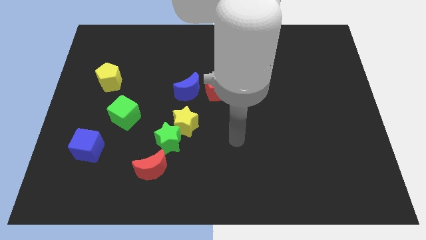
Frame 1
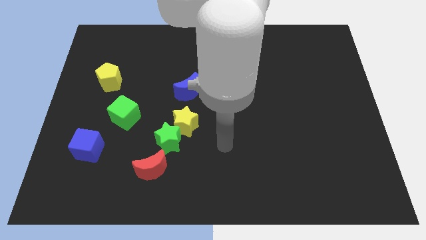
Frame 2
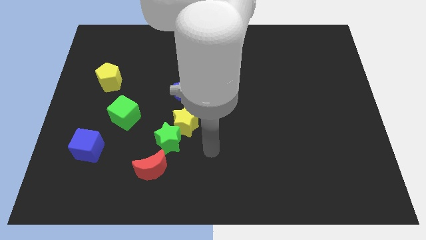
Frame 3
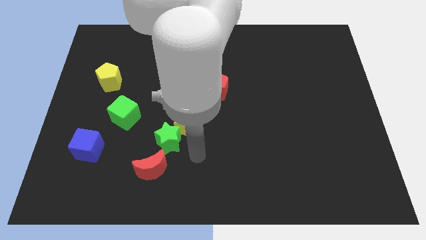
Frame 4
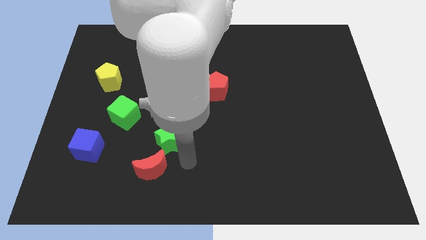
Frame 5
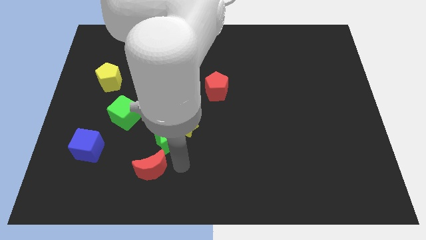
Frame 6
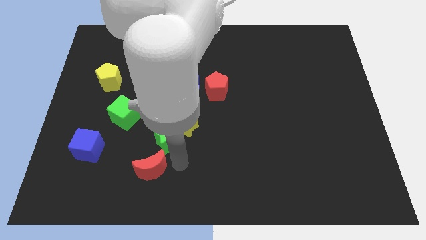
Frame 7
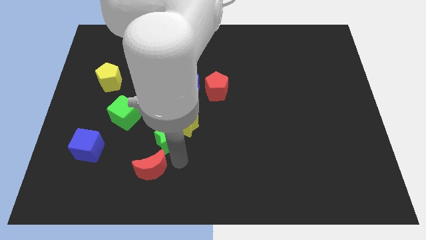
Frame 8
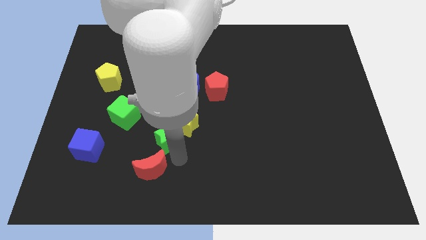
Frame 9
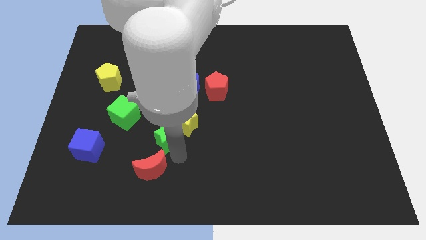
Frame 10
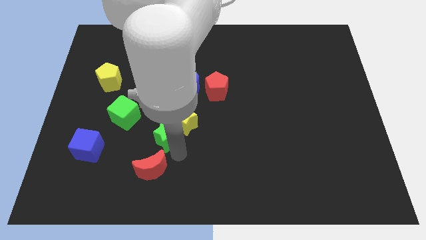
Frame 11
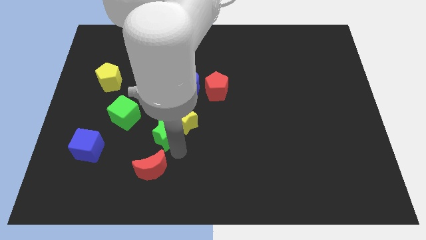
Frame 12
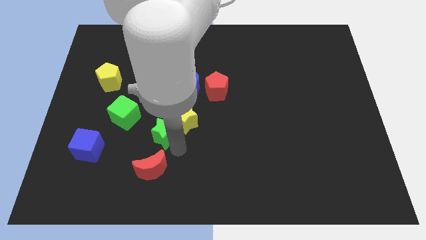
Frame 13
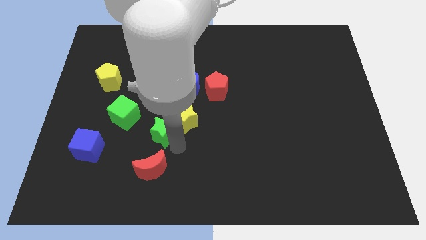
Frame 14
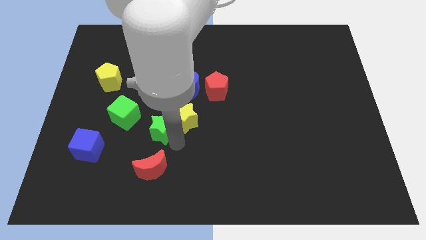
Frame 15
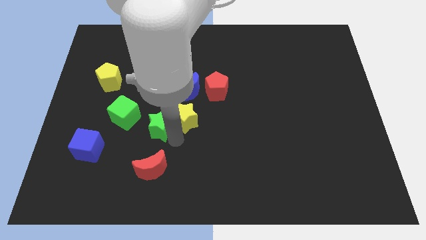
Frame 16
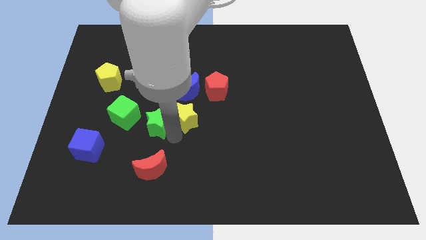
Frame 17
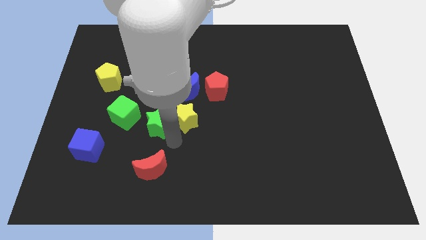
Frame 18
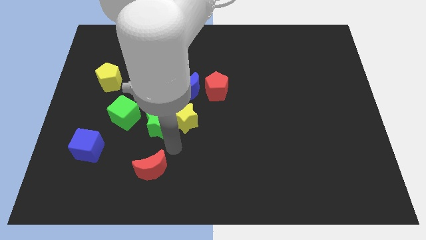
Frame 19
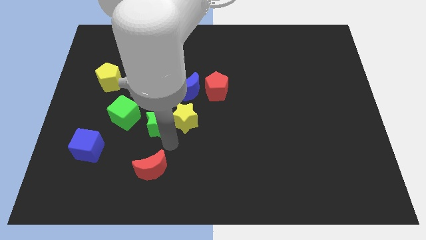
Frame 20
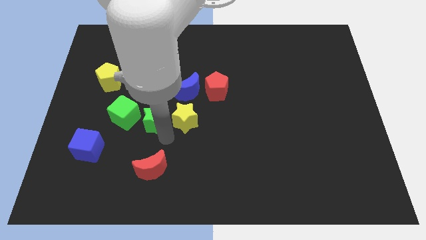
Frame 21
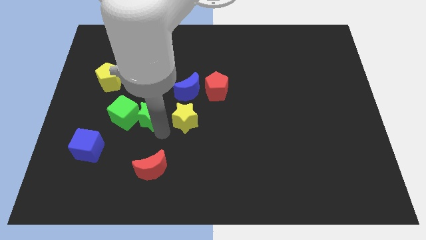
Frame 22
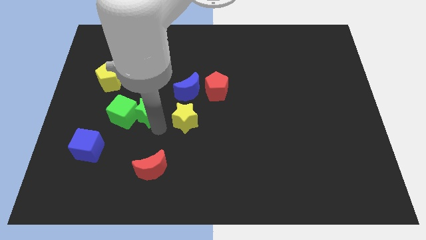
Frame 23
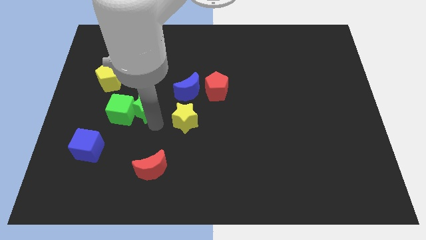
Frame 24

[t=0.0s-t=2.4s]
move the green star away from the yellow star and red moon

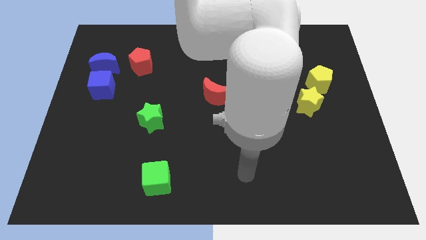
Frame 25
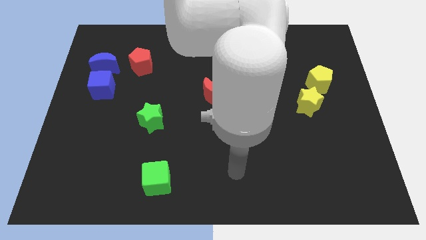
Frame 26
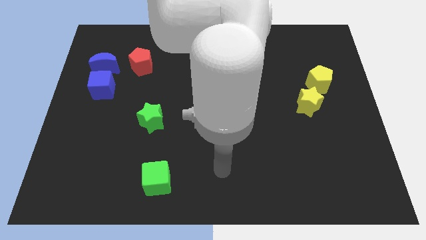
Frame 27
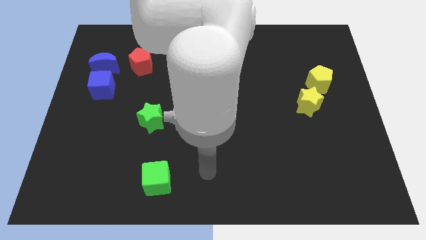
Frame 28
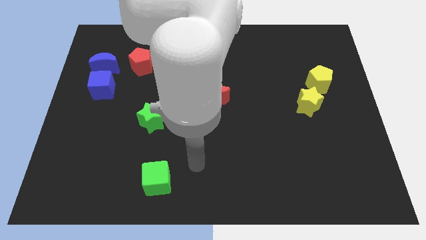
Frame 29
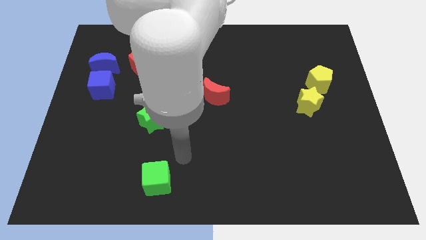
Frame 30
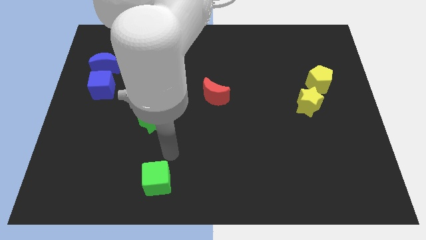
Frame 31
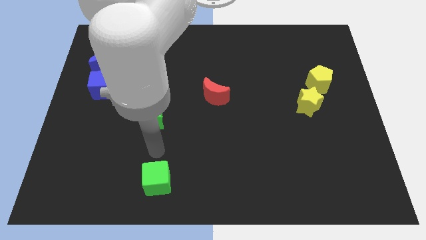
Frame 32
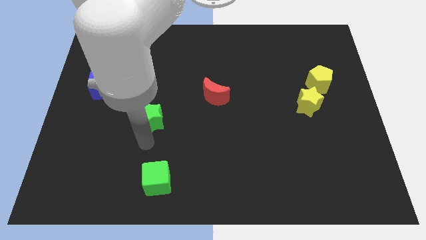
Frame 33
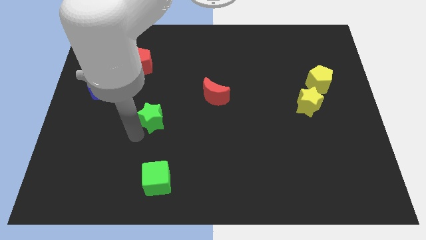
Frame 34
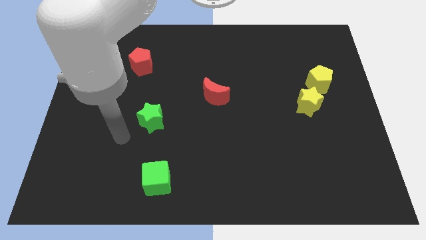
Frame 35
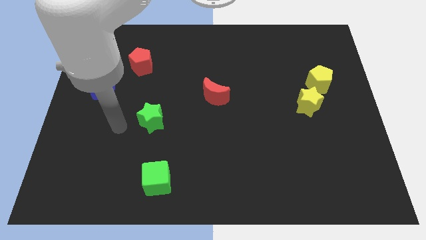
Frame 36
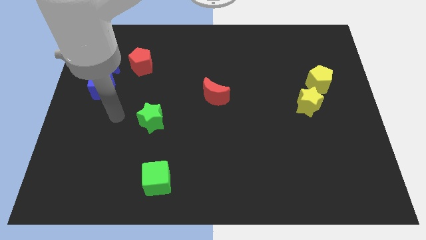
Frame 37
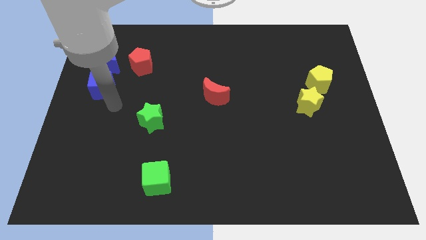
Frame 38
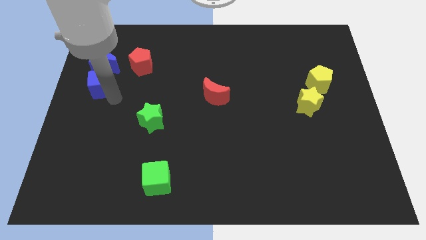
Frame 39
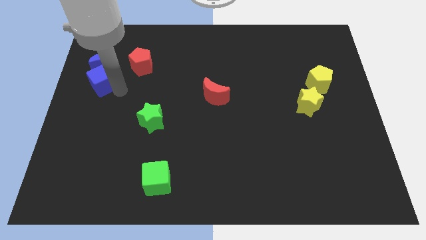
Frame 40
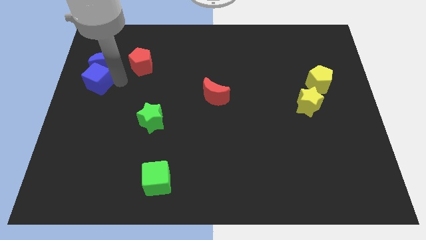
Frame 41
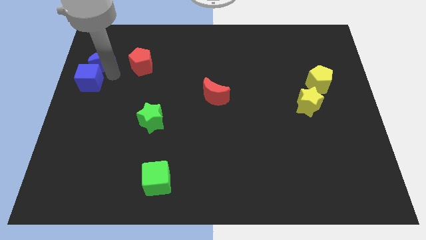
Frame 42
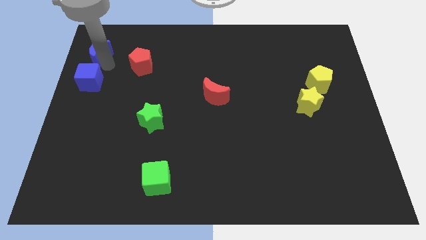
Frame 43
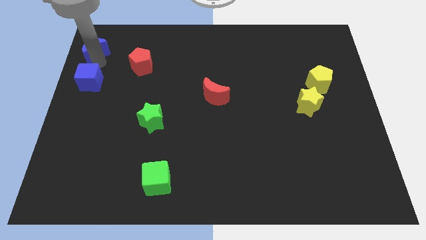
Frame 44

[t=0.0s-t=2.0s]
move the blue cube away from the blue moon

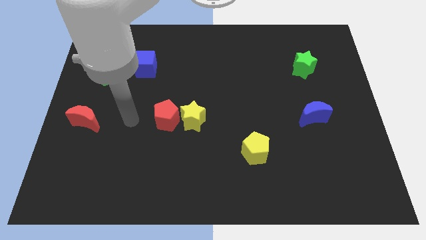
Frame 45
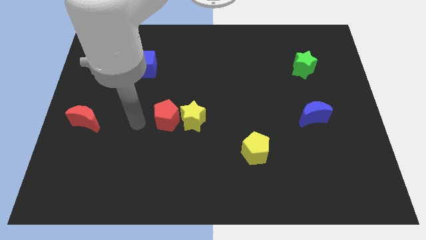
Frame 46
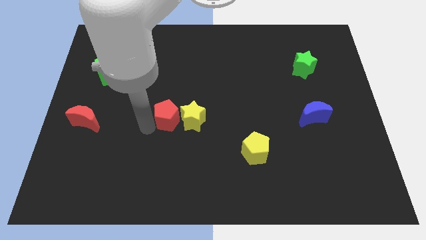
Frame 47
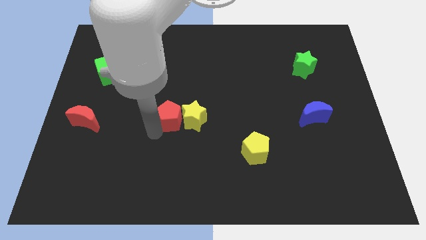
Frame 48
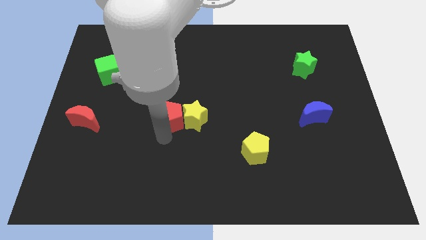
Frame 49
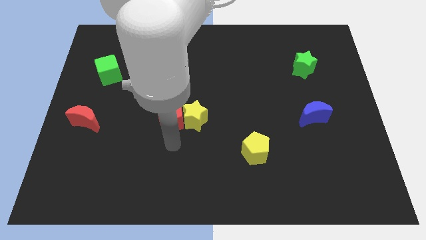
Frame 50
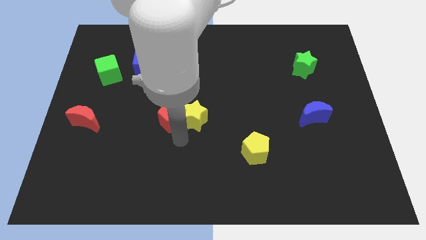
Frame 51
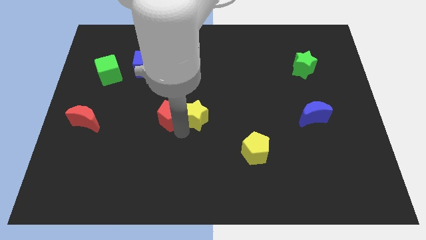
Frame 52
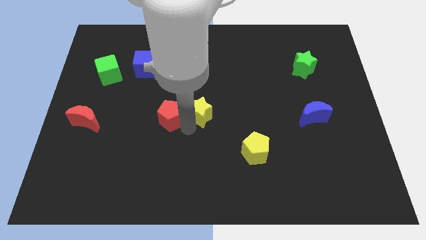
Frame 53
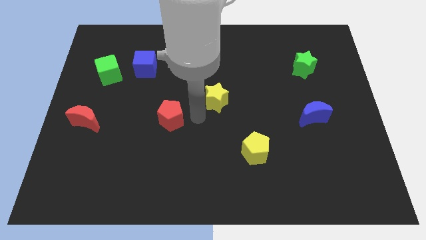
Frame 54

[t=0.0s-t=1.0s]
move the red pentagon away from the yellow star

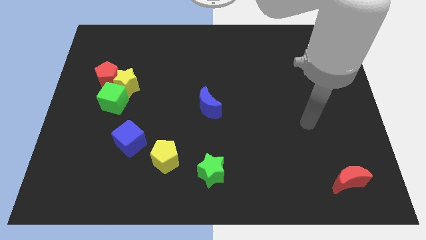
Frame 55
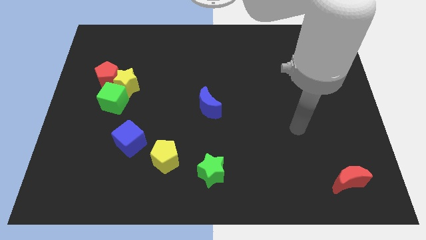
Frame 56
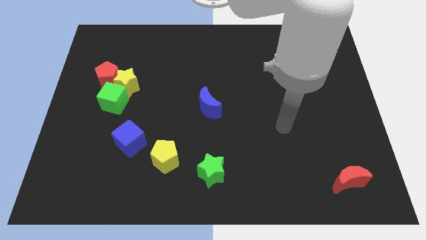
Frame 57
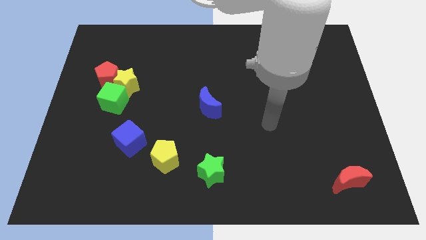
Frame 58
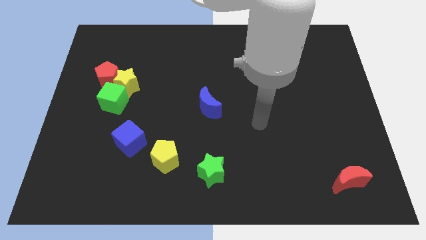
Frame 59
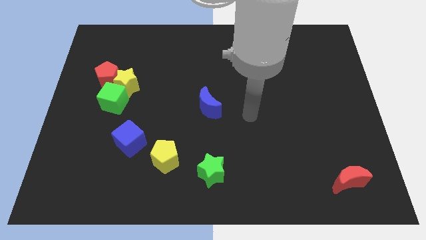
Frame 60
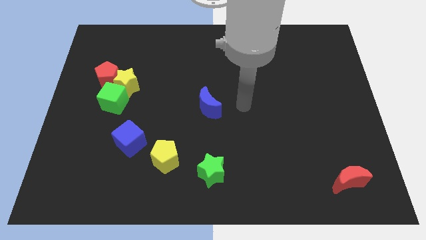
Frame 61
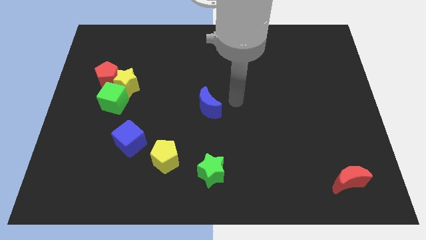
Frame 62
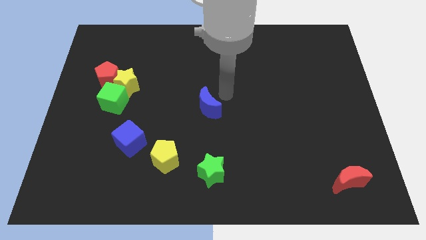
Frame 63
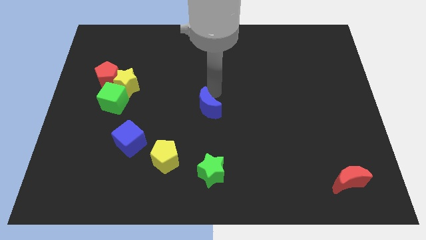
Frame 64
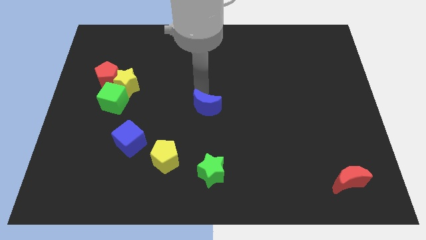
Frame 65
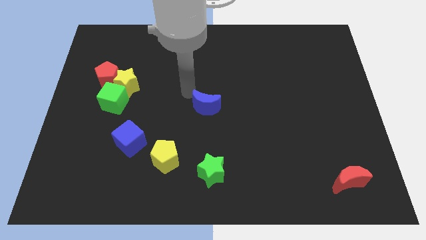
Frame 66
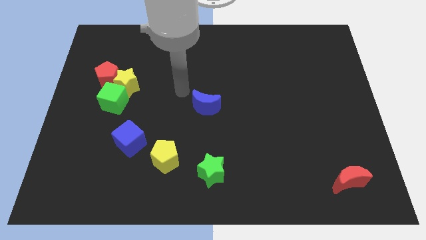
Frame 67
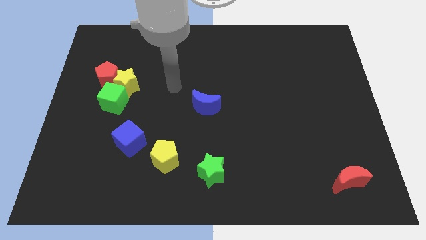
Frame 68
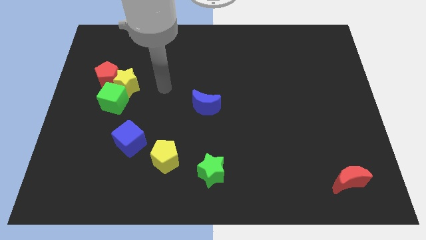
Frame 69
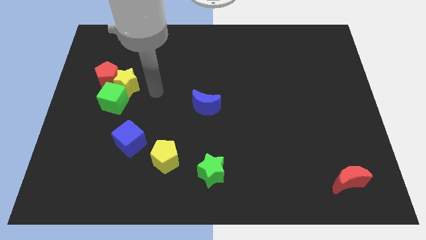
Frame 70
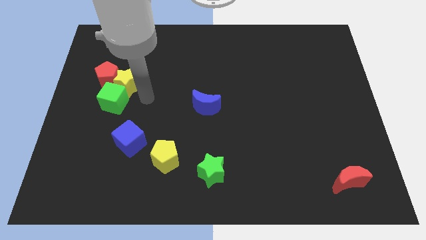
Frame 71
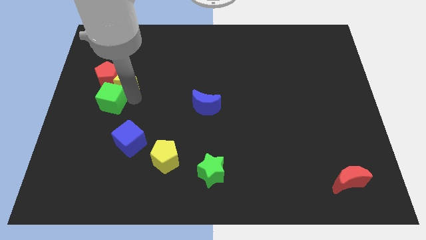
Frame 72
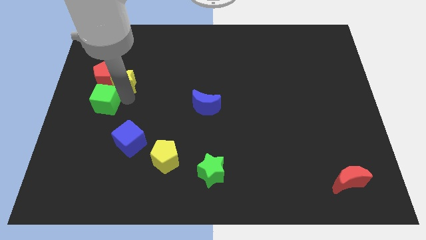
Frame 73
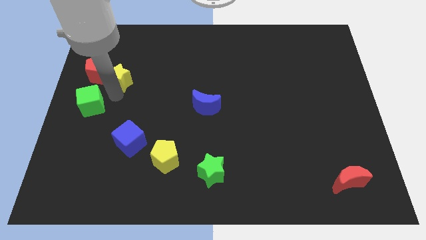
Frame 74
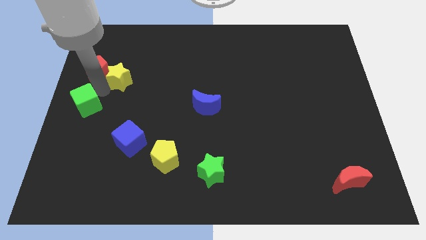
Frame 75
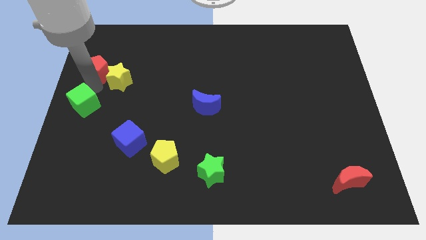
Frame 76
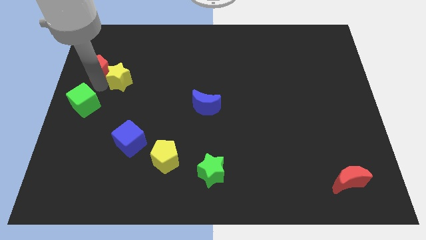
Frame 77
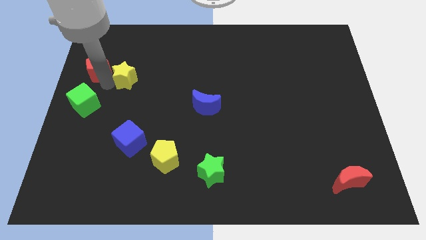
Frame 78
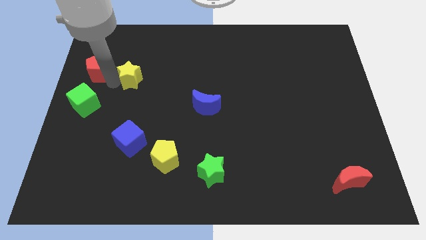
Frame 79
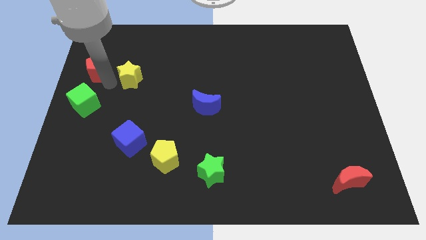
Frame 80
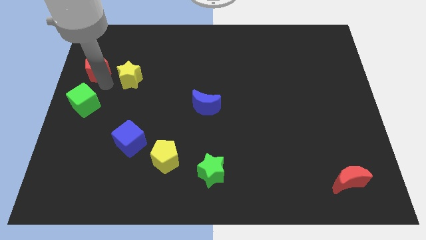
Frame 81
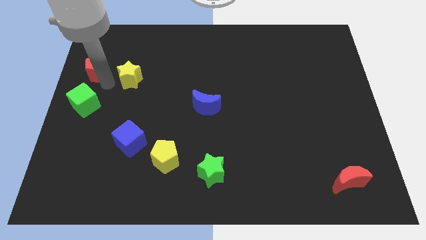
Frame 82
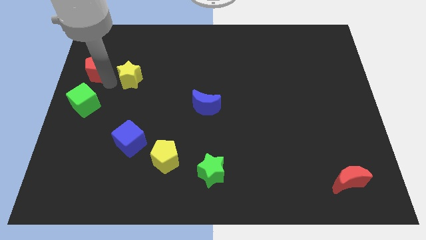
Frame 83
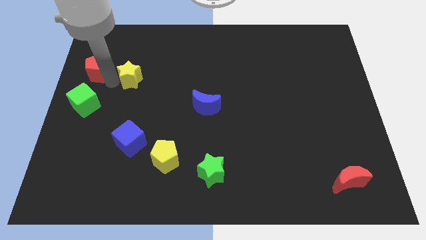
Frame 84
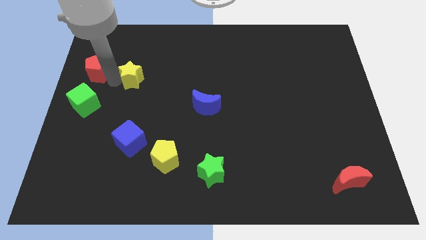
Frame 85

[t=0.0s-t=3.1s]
separate the yellow star from the red pentagon and green cube

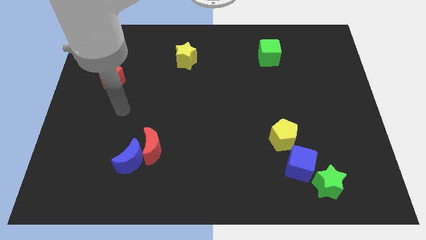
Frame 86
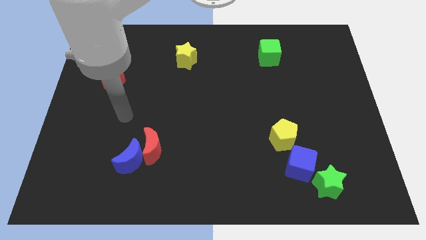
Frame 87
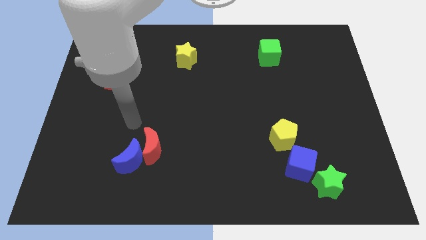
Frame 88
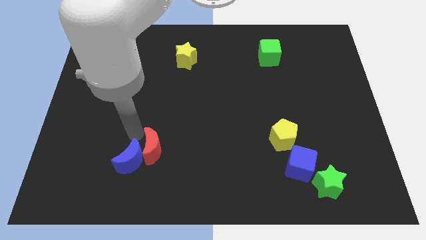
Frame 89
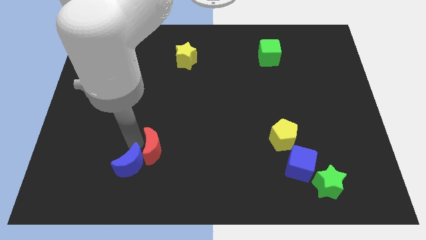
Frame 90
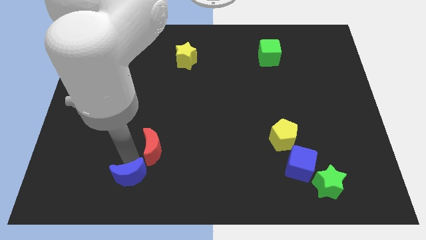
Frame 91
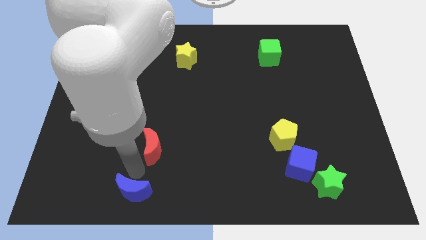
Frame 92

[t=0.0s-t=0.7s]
separate the red moon from the blue moon

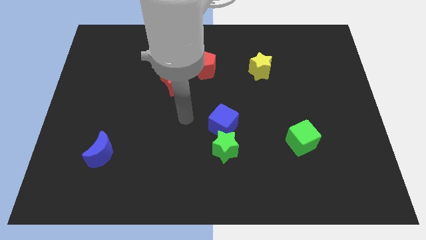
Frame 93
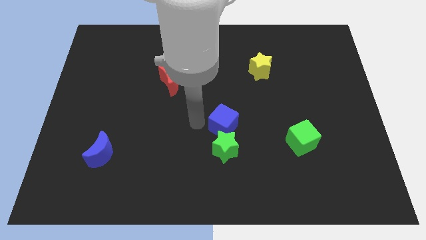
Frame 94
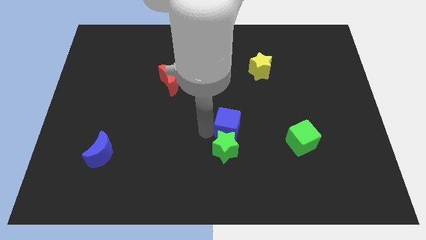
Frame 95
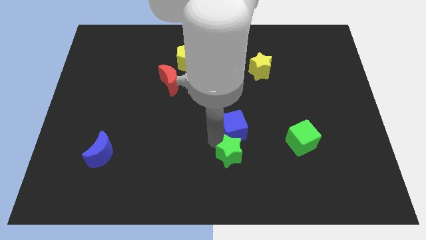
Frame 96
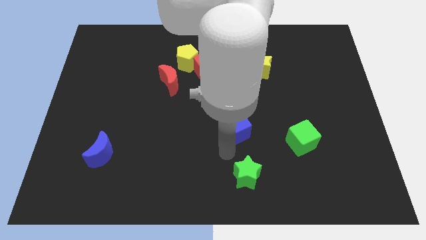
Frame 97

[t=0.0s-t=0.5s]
separate the blue cube from the green star
